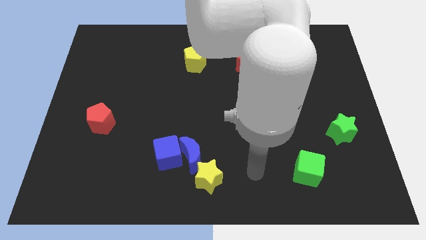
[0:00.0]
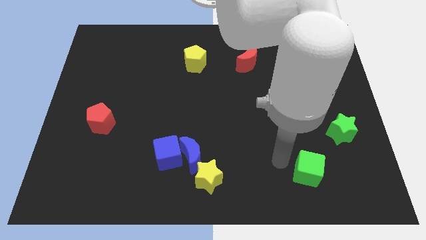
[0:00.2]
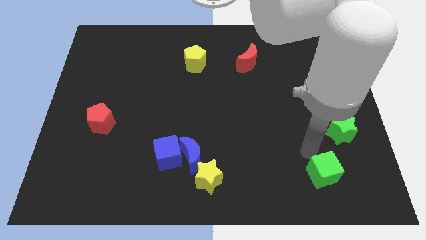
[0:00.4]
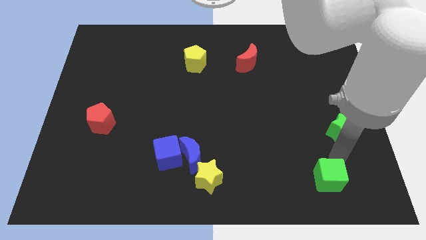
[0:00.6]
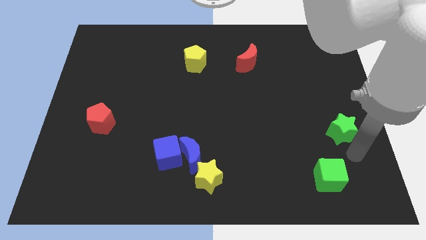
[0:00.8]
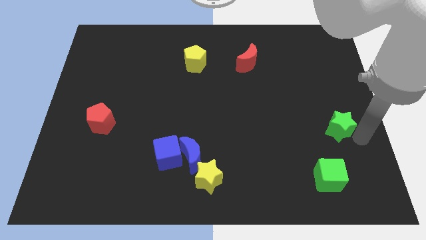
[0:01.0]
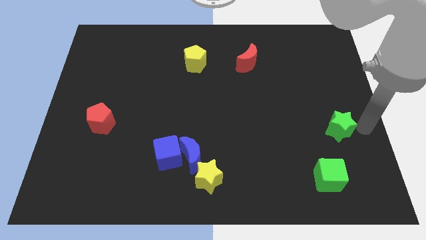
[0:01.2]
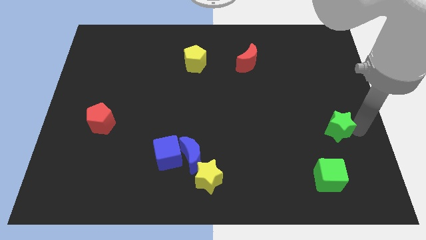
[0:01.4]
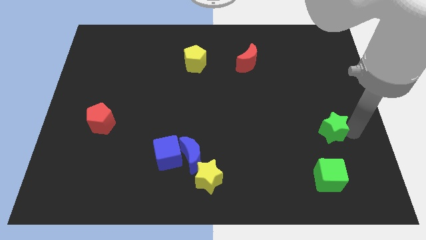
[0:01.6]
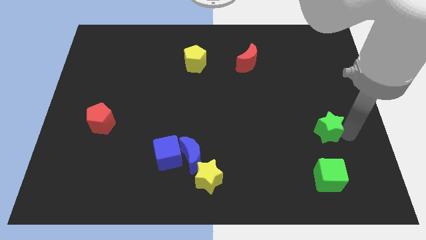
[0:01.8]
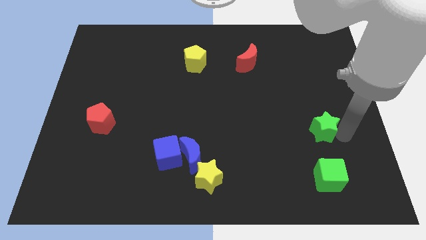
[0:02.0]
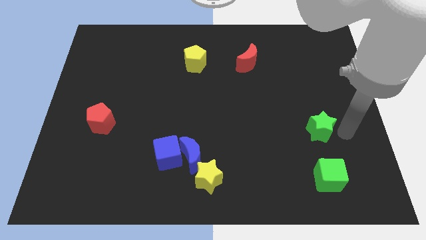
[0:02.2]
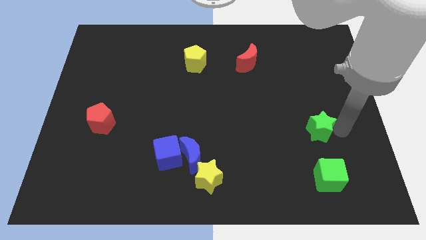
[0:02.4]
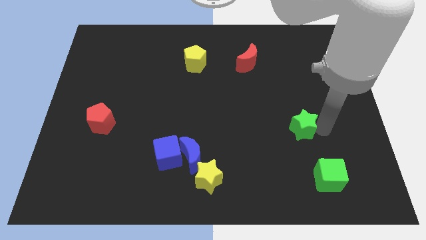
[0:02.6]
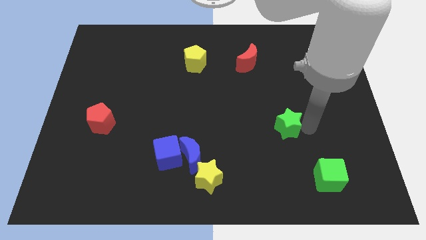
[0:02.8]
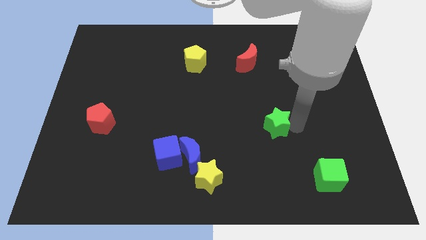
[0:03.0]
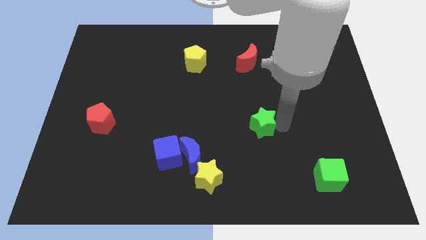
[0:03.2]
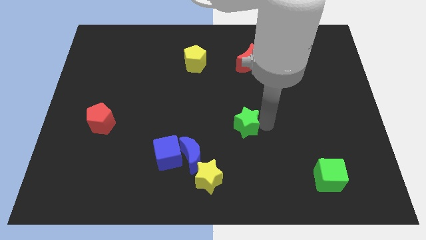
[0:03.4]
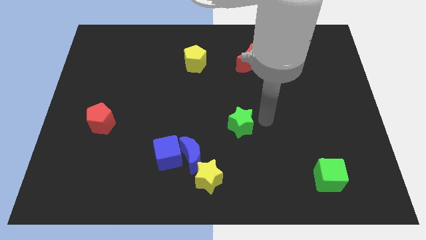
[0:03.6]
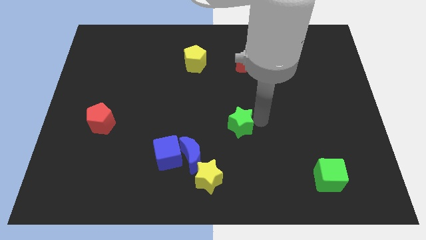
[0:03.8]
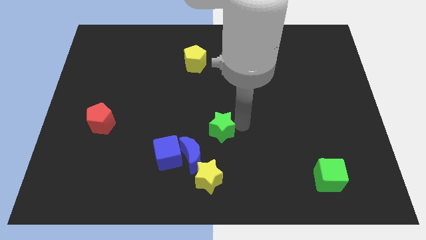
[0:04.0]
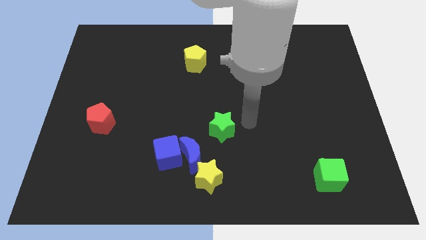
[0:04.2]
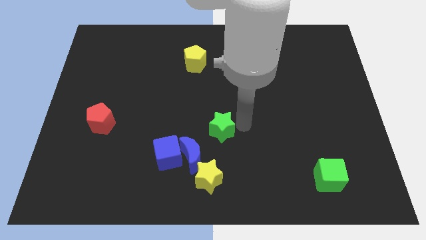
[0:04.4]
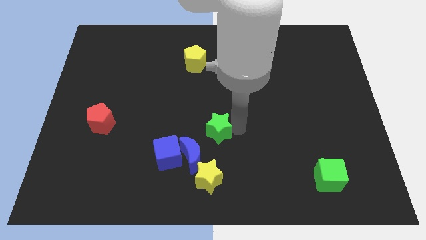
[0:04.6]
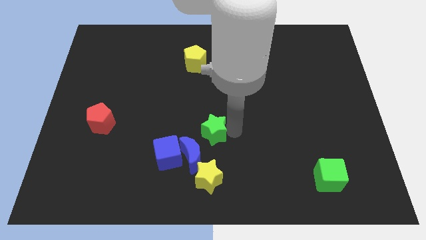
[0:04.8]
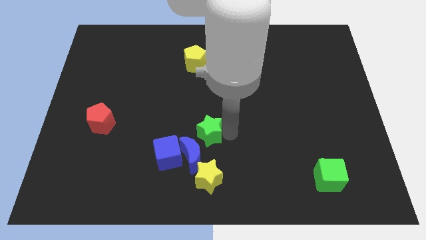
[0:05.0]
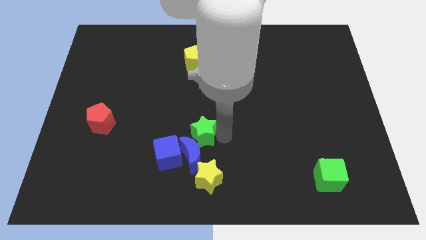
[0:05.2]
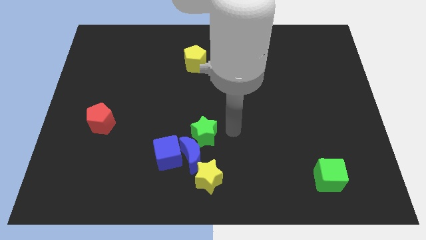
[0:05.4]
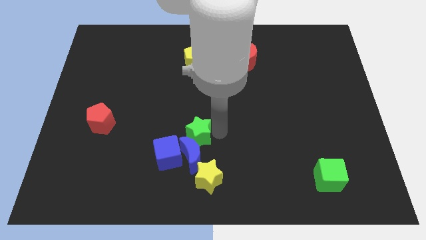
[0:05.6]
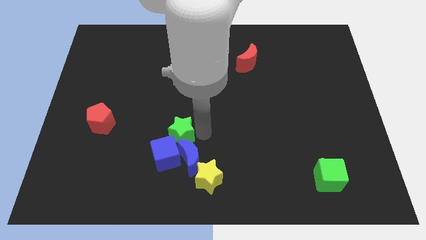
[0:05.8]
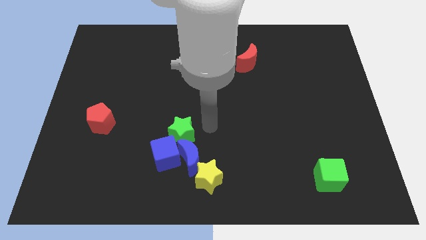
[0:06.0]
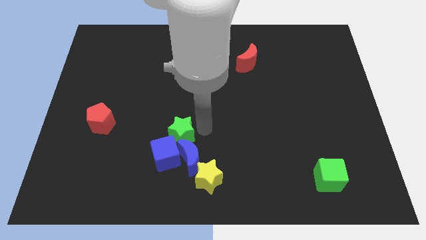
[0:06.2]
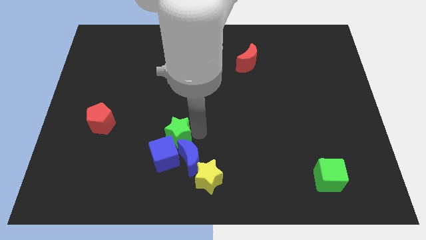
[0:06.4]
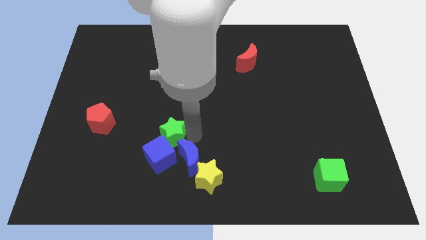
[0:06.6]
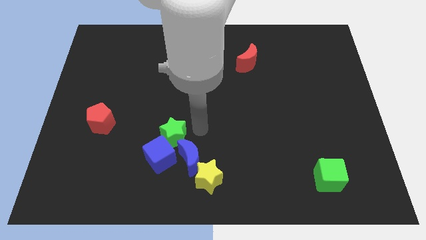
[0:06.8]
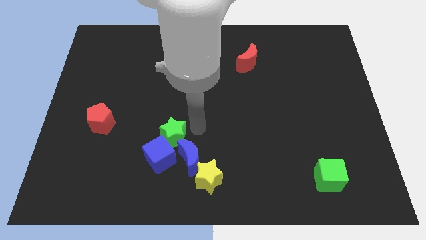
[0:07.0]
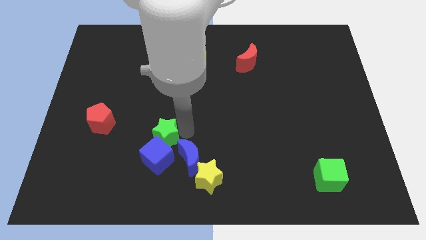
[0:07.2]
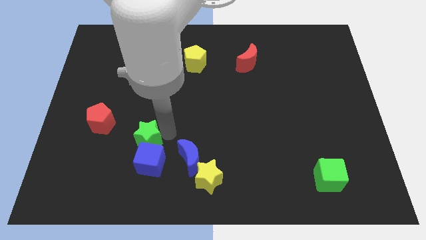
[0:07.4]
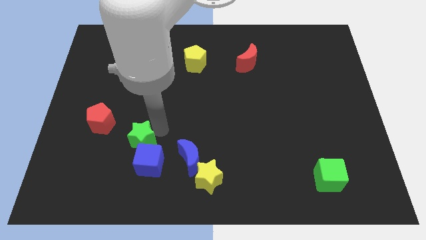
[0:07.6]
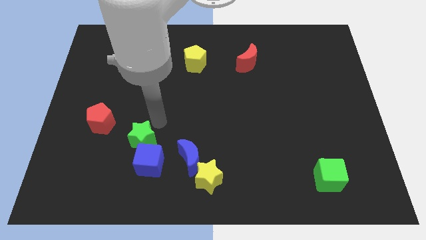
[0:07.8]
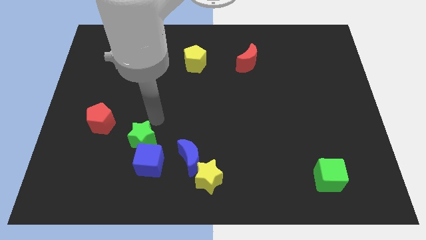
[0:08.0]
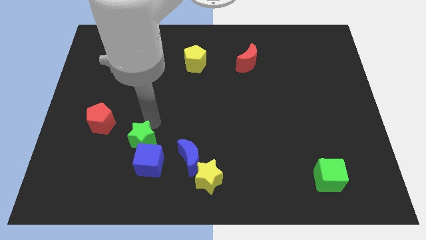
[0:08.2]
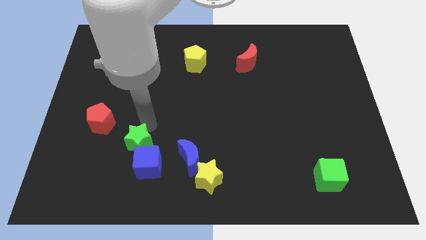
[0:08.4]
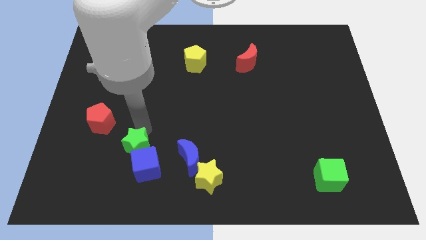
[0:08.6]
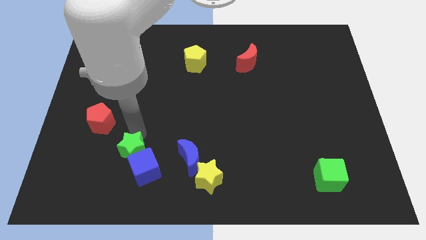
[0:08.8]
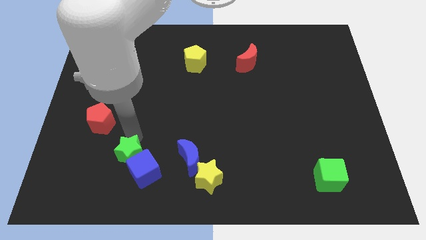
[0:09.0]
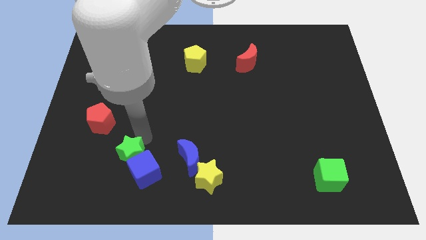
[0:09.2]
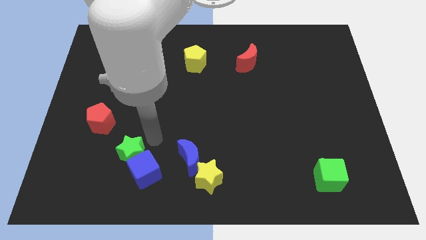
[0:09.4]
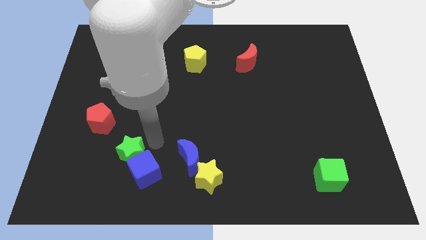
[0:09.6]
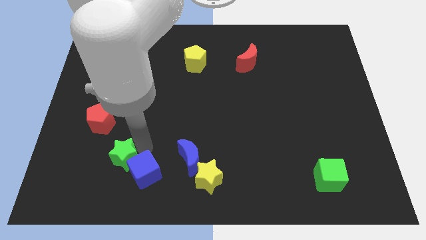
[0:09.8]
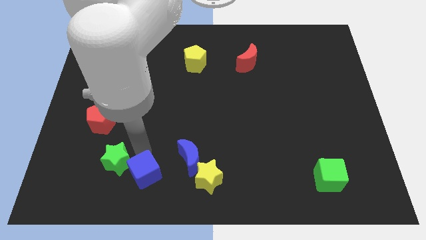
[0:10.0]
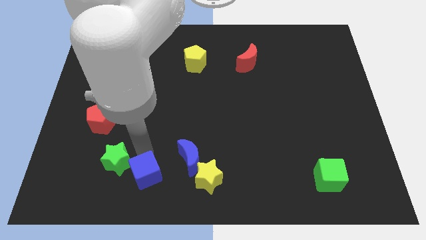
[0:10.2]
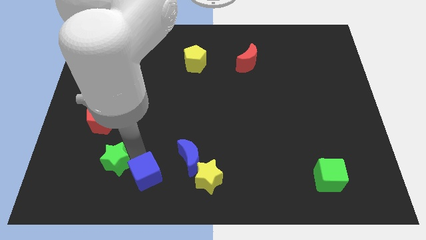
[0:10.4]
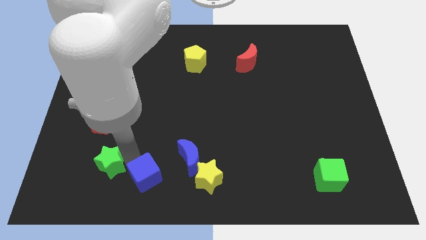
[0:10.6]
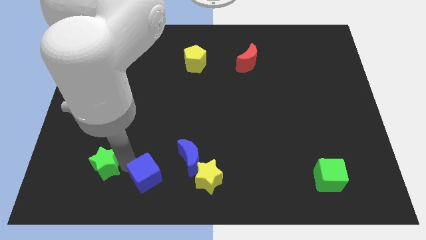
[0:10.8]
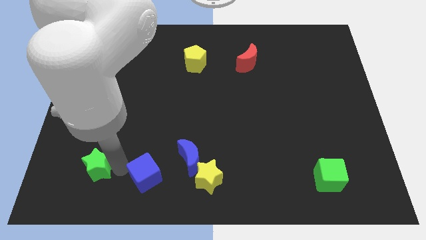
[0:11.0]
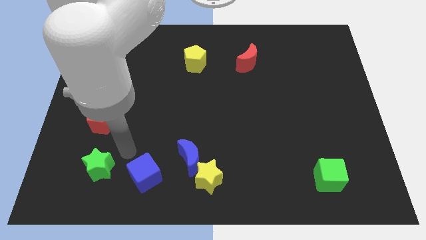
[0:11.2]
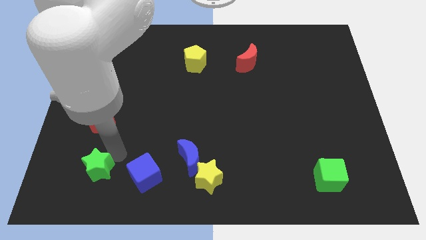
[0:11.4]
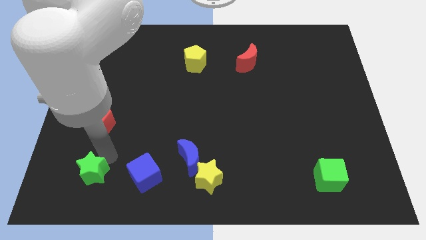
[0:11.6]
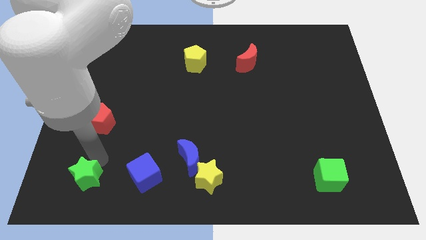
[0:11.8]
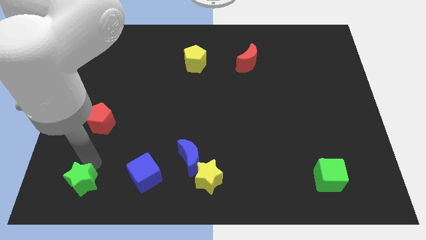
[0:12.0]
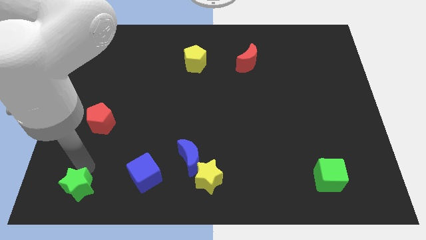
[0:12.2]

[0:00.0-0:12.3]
slide the green star to the bottom left
